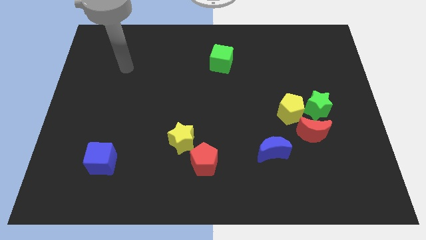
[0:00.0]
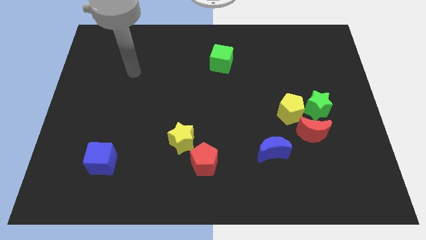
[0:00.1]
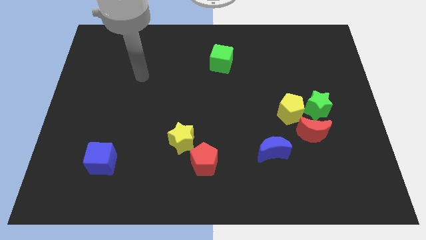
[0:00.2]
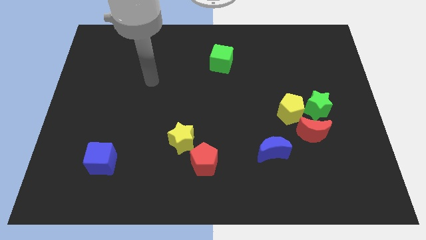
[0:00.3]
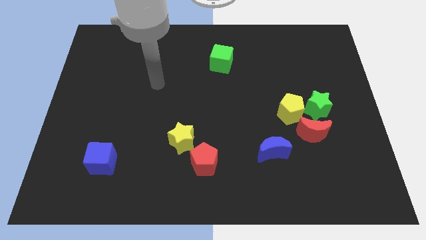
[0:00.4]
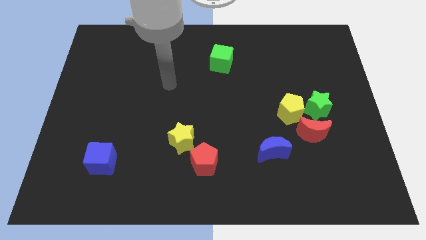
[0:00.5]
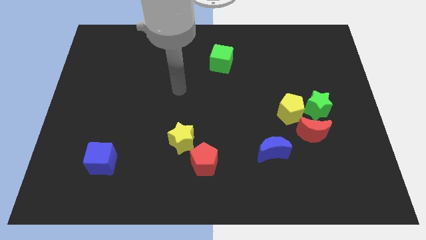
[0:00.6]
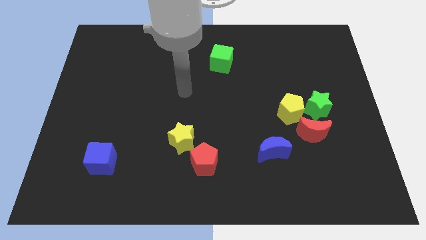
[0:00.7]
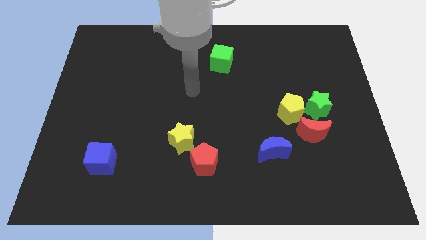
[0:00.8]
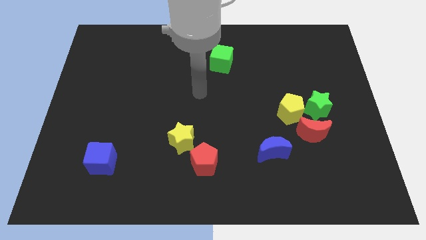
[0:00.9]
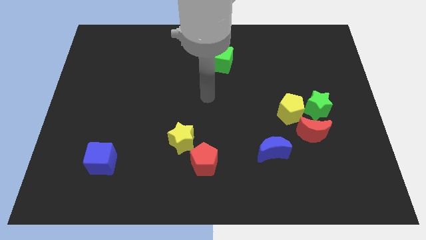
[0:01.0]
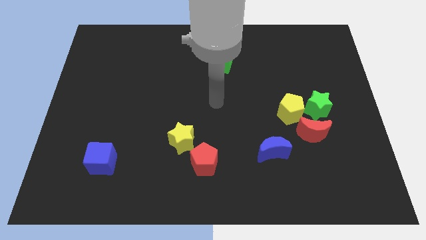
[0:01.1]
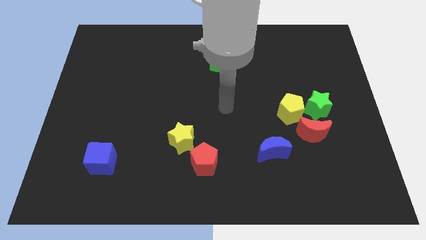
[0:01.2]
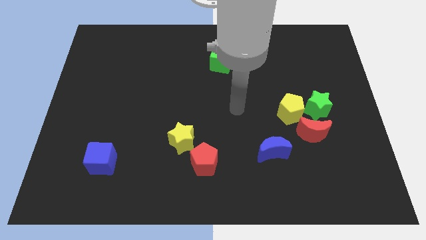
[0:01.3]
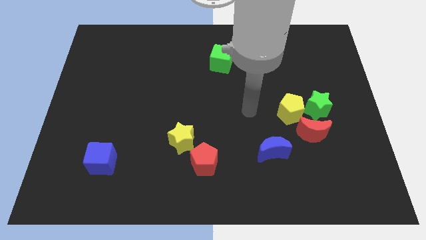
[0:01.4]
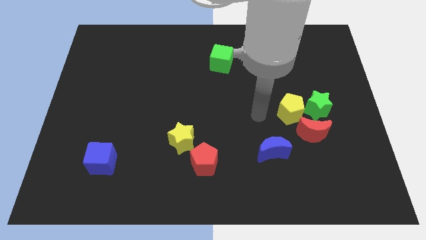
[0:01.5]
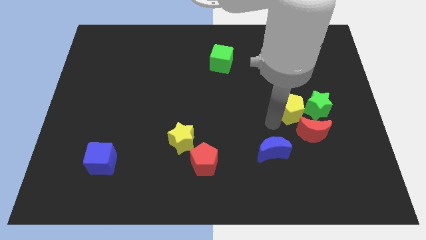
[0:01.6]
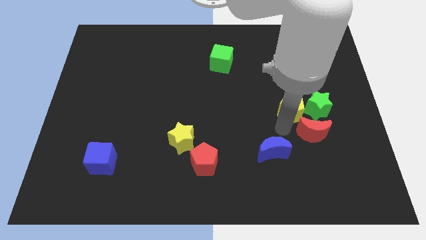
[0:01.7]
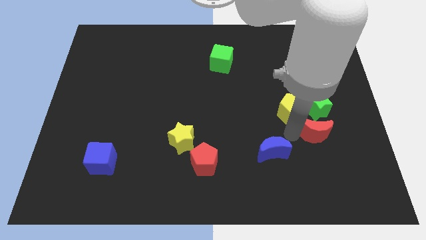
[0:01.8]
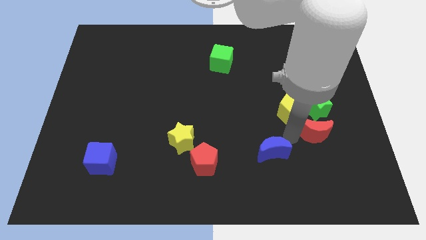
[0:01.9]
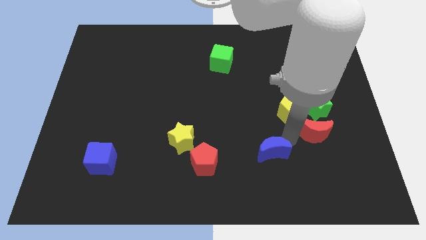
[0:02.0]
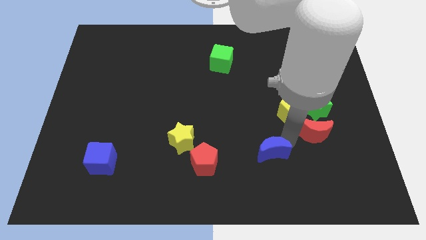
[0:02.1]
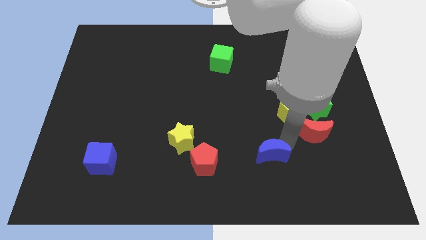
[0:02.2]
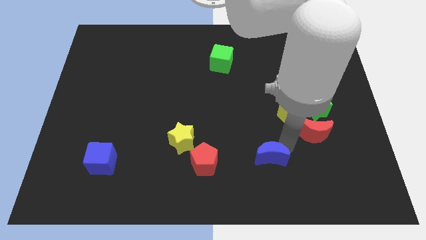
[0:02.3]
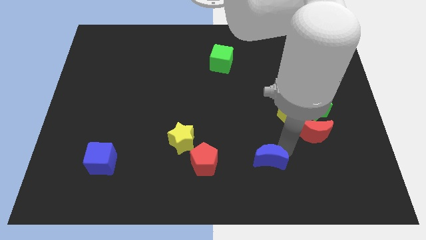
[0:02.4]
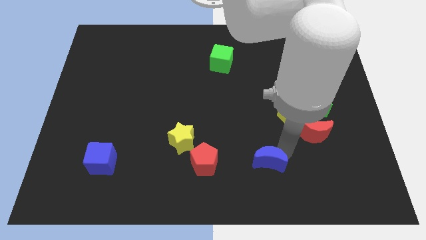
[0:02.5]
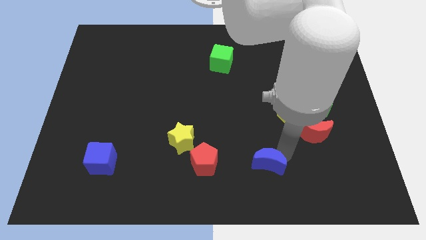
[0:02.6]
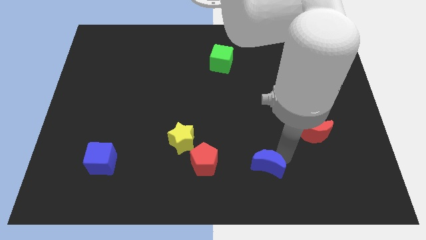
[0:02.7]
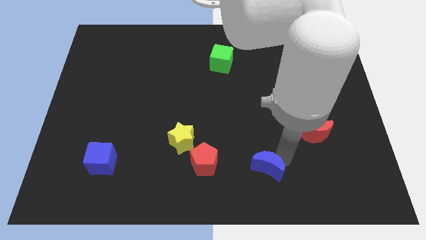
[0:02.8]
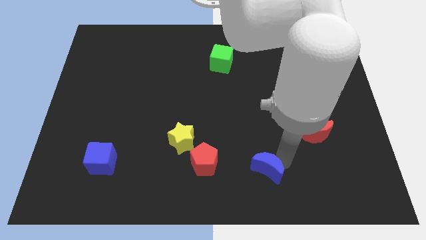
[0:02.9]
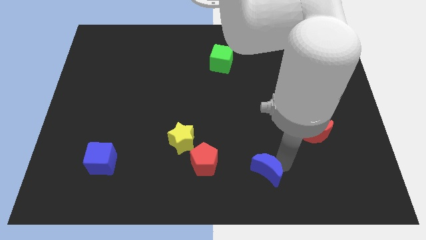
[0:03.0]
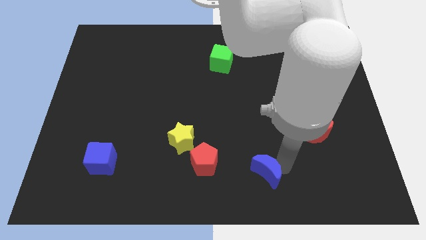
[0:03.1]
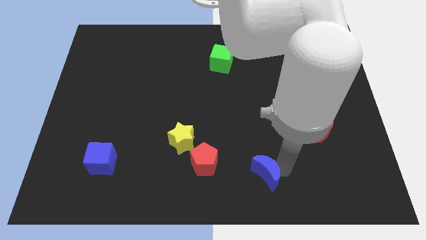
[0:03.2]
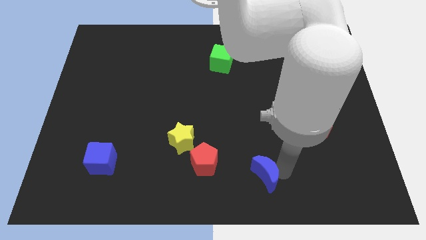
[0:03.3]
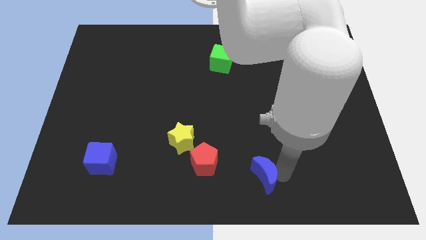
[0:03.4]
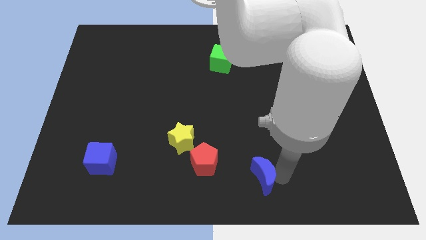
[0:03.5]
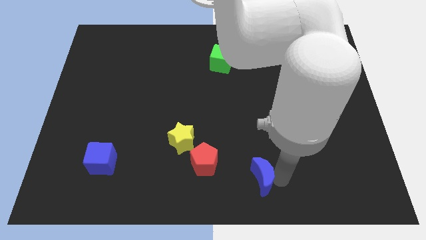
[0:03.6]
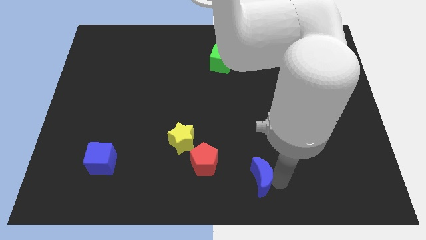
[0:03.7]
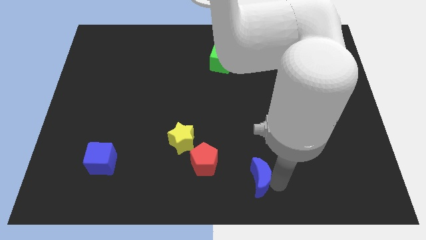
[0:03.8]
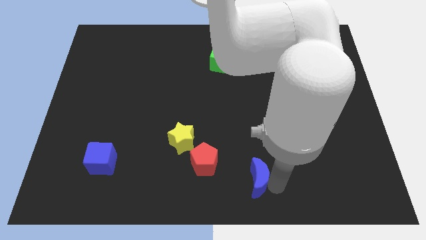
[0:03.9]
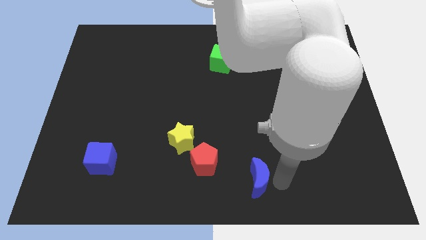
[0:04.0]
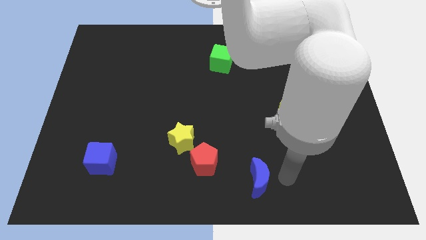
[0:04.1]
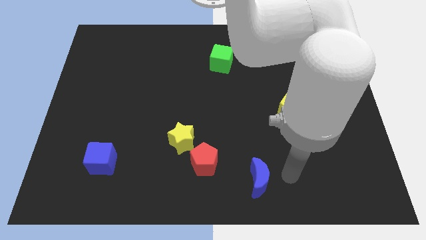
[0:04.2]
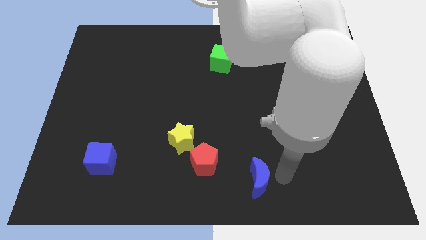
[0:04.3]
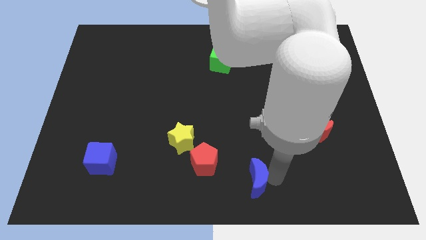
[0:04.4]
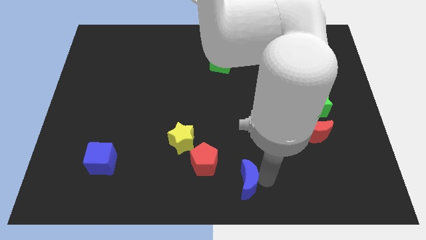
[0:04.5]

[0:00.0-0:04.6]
slide the blue moon to the bottom right side of the red pentagon

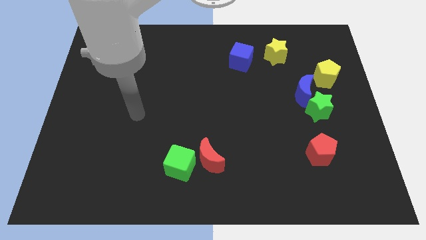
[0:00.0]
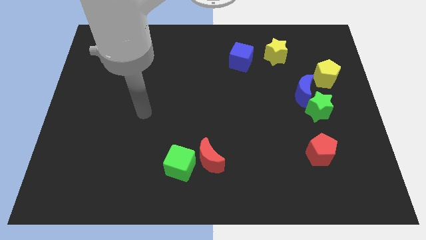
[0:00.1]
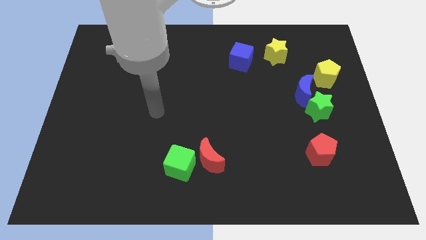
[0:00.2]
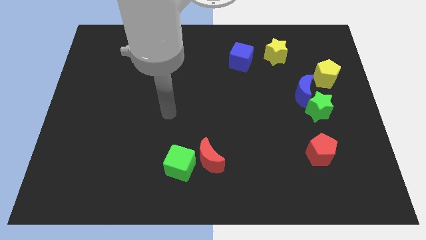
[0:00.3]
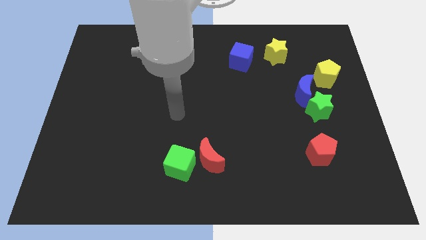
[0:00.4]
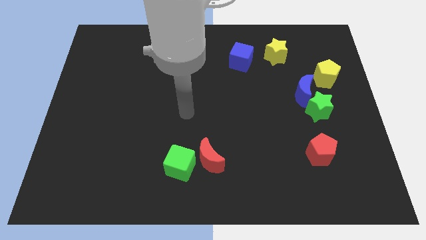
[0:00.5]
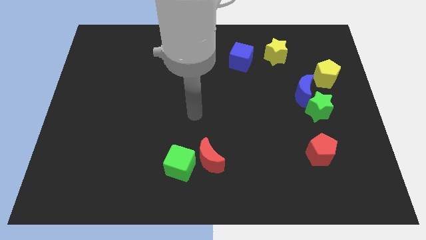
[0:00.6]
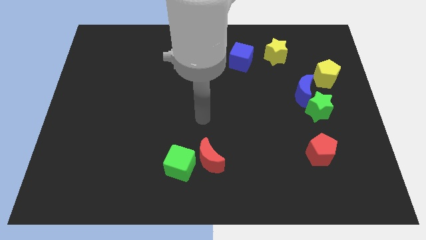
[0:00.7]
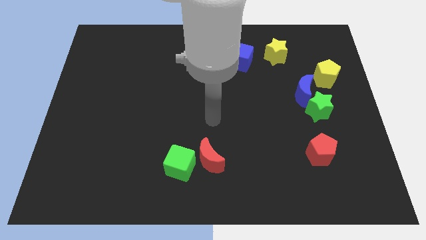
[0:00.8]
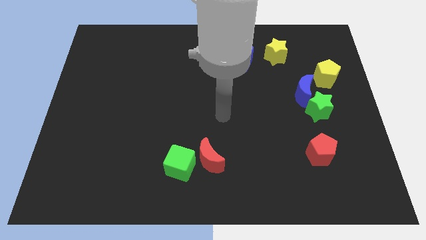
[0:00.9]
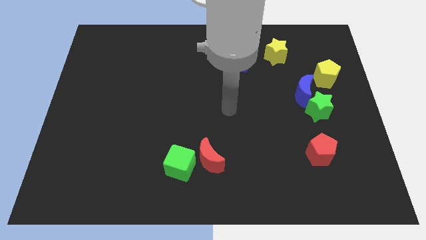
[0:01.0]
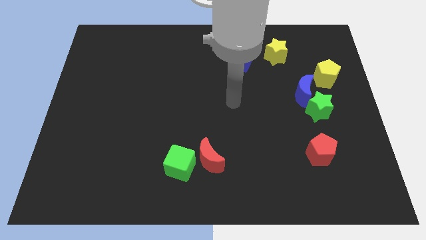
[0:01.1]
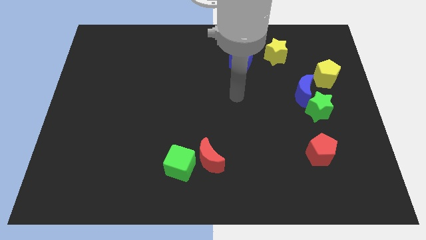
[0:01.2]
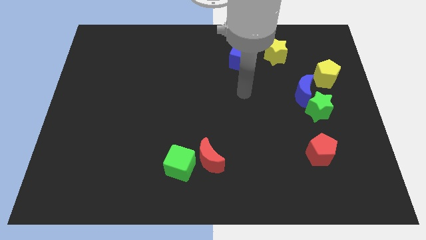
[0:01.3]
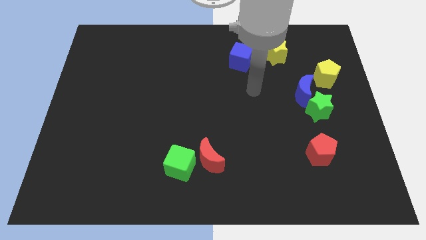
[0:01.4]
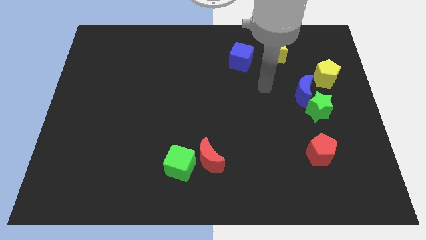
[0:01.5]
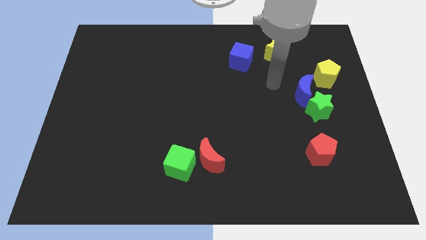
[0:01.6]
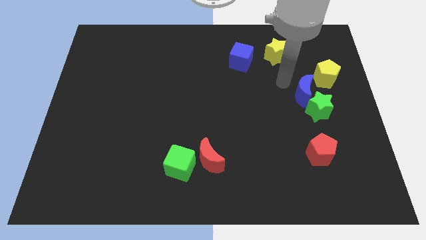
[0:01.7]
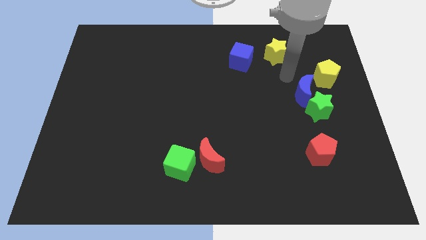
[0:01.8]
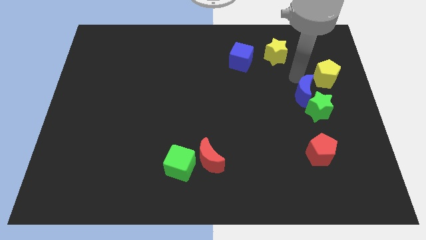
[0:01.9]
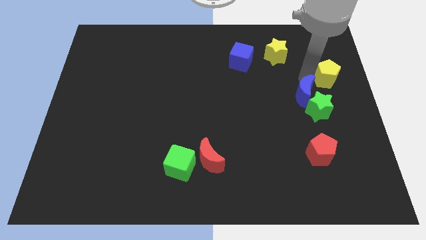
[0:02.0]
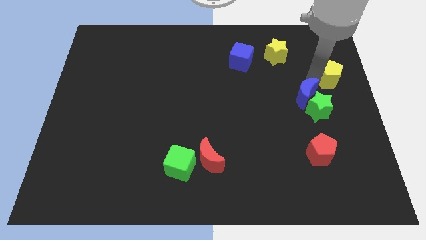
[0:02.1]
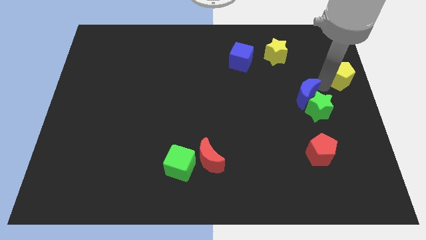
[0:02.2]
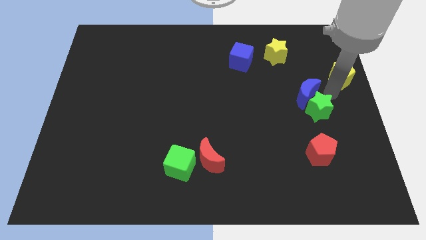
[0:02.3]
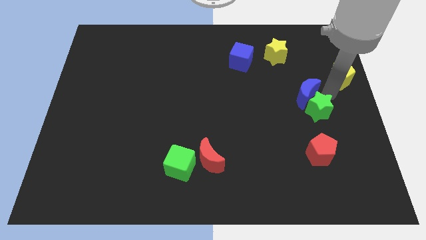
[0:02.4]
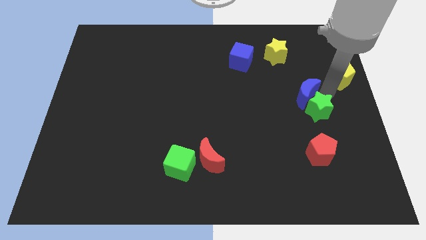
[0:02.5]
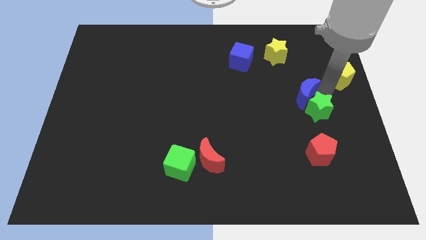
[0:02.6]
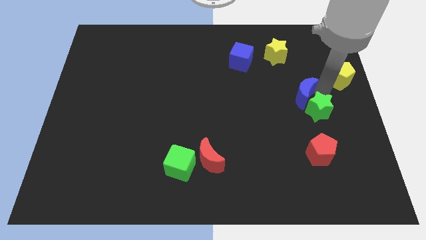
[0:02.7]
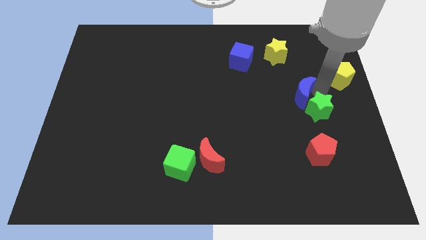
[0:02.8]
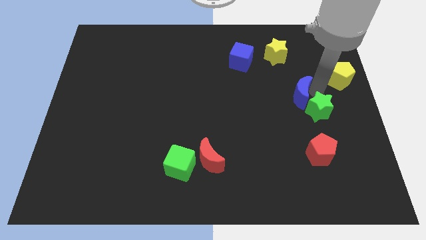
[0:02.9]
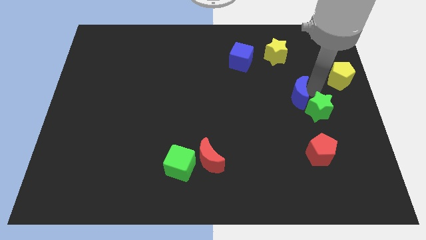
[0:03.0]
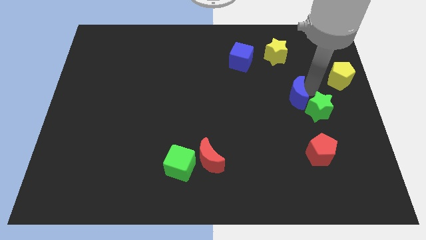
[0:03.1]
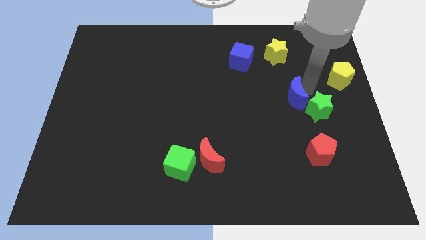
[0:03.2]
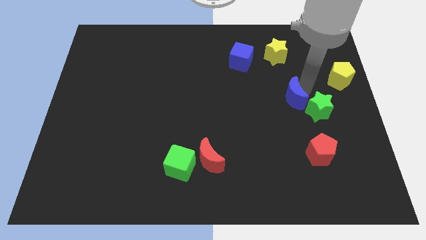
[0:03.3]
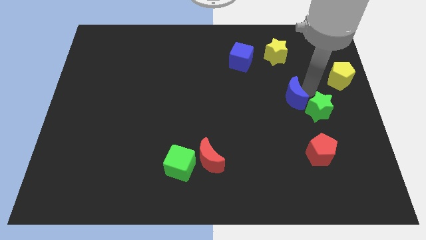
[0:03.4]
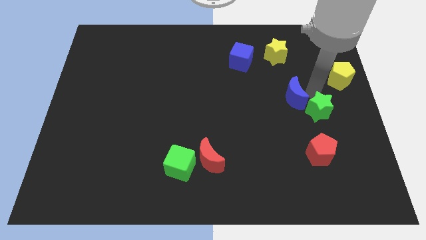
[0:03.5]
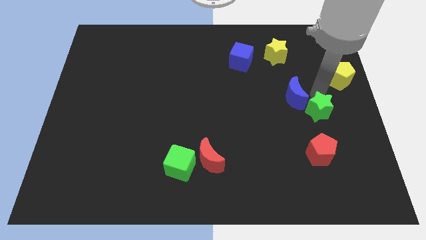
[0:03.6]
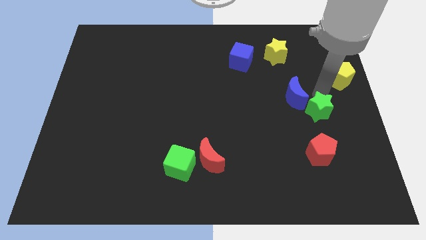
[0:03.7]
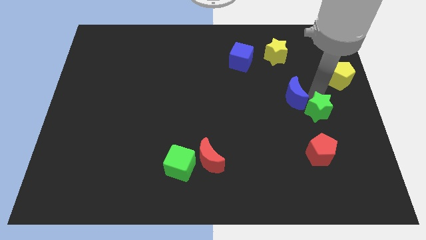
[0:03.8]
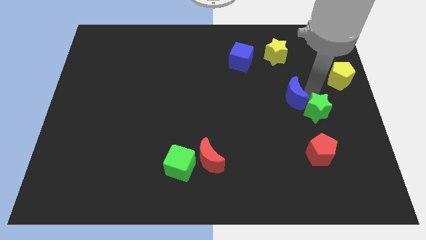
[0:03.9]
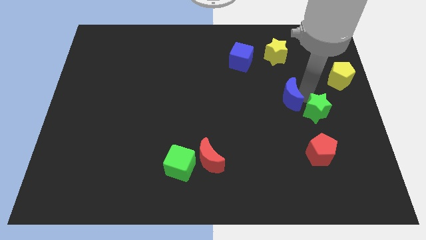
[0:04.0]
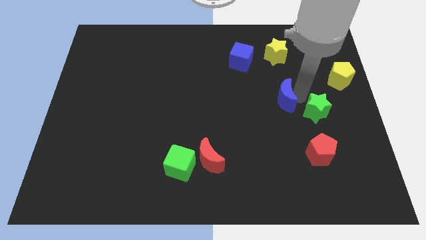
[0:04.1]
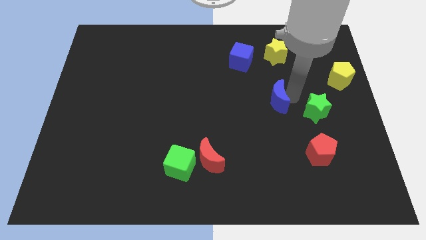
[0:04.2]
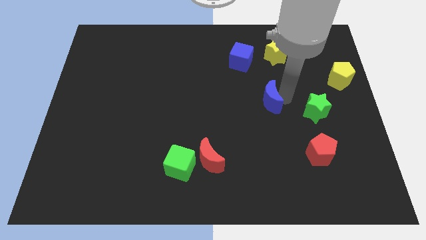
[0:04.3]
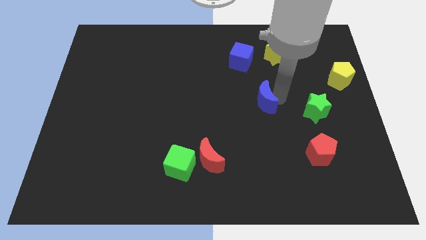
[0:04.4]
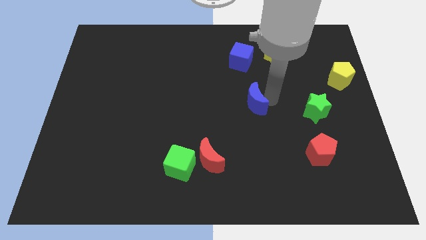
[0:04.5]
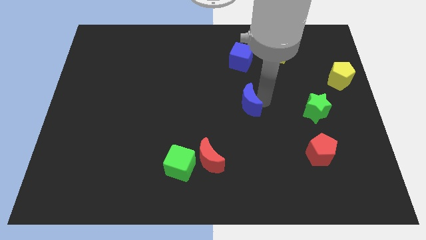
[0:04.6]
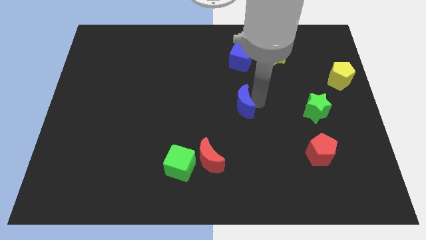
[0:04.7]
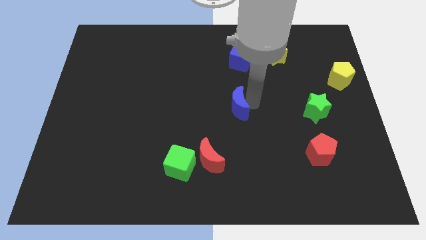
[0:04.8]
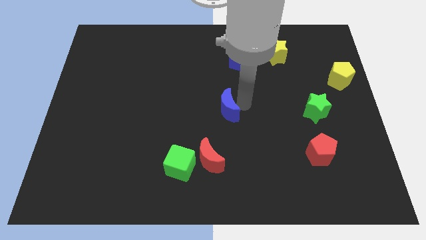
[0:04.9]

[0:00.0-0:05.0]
move the blue moon to the top side of the red moon
